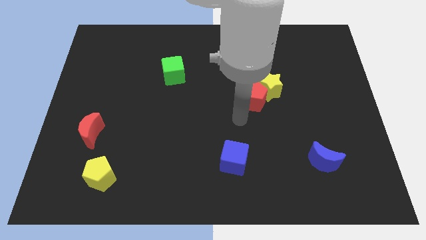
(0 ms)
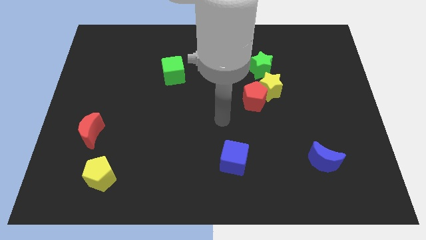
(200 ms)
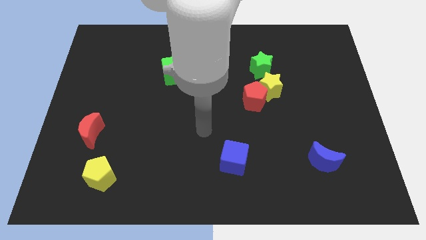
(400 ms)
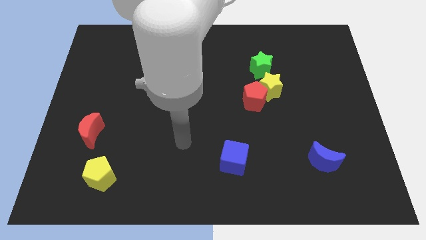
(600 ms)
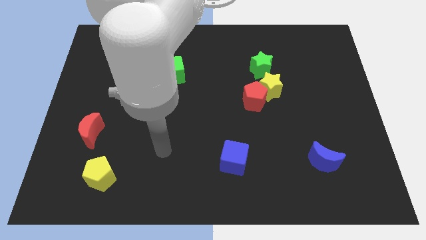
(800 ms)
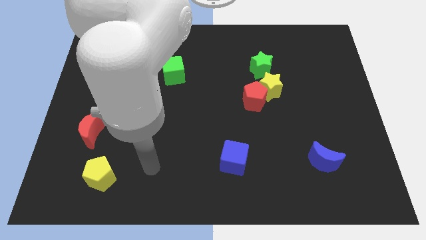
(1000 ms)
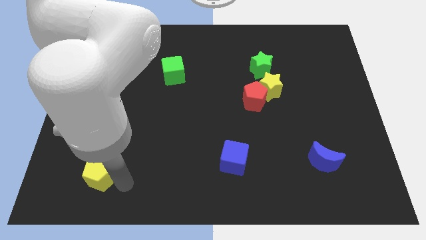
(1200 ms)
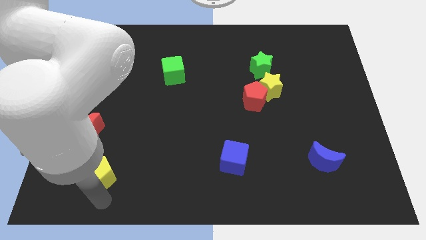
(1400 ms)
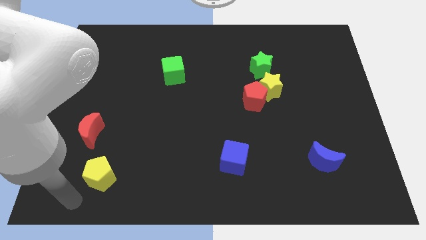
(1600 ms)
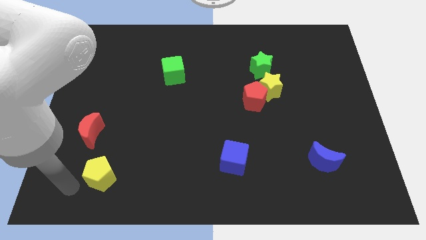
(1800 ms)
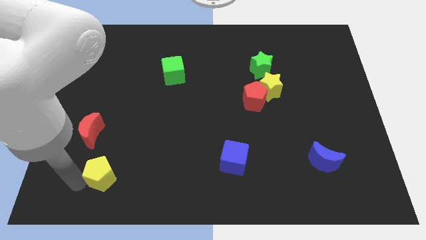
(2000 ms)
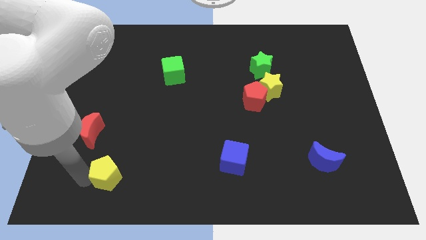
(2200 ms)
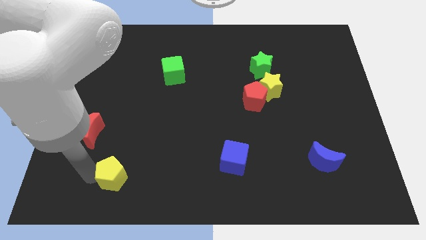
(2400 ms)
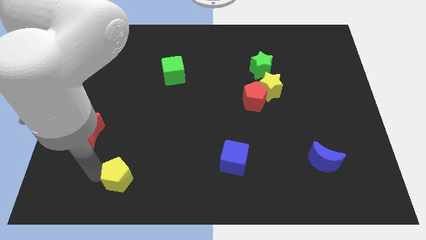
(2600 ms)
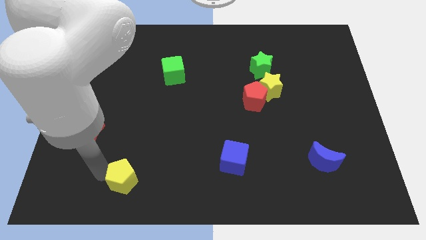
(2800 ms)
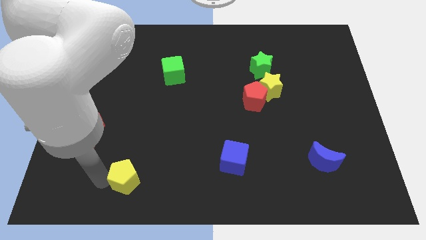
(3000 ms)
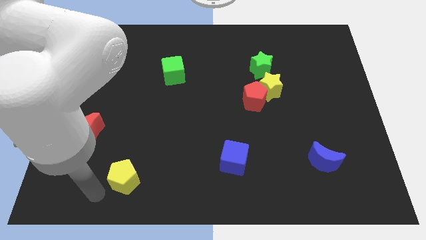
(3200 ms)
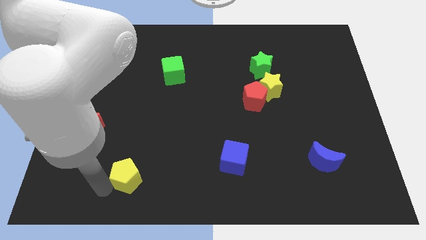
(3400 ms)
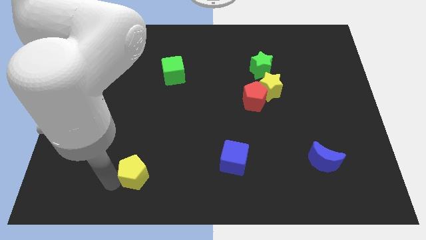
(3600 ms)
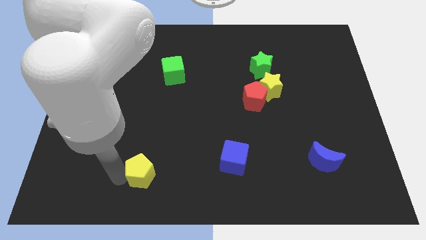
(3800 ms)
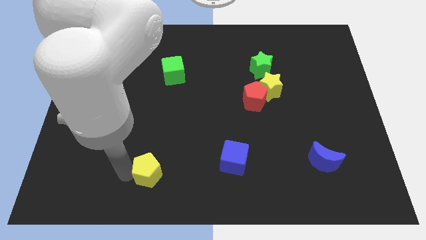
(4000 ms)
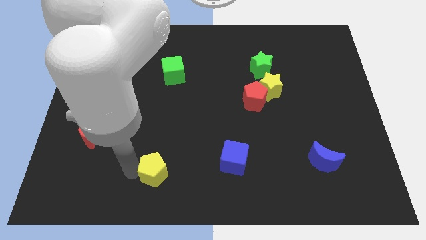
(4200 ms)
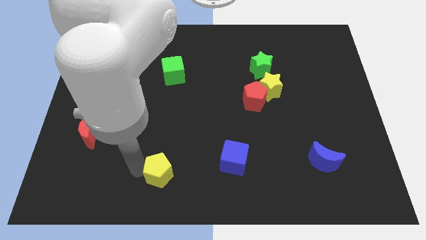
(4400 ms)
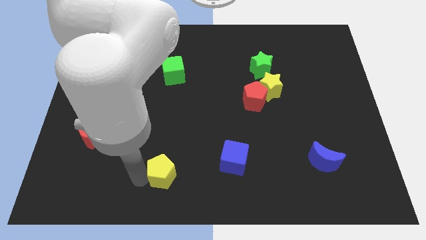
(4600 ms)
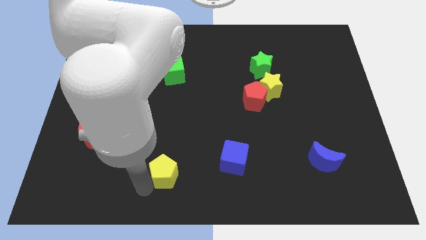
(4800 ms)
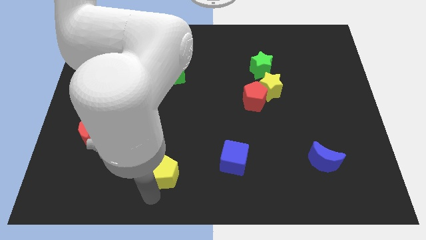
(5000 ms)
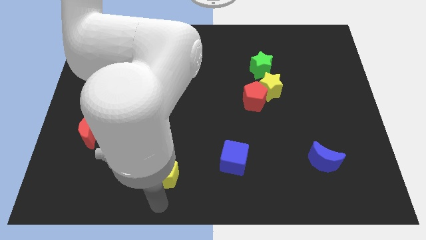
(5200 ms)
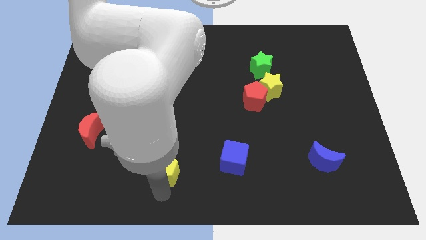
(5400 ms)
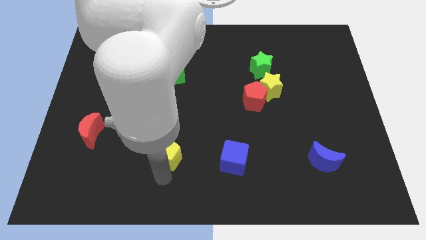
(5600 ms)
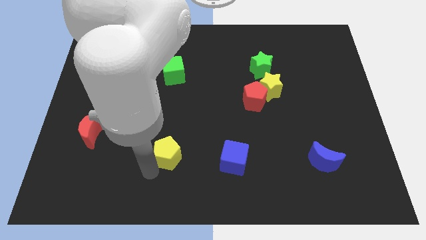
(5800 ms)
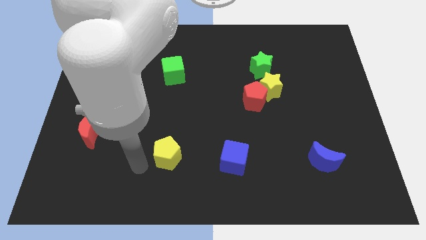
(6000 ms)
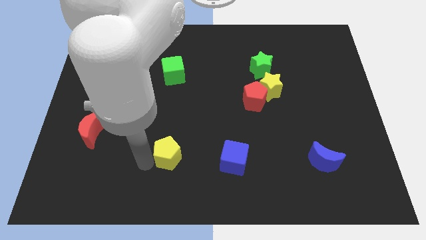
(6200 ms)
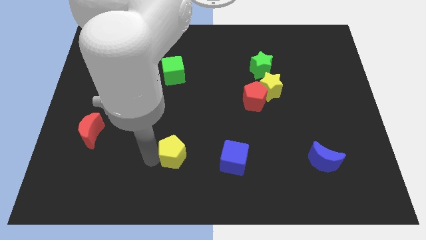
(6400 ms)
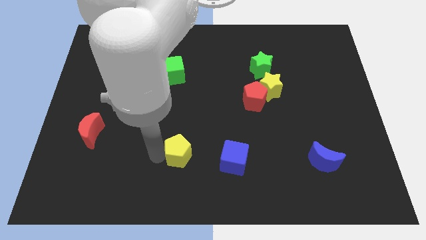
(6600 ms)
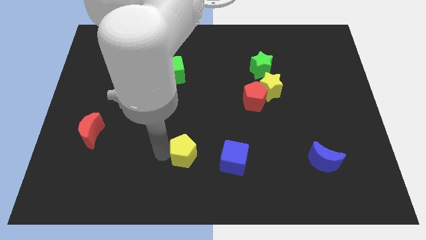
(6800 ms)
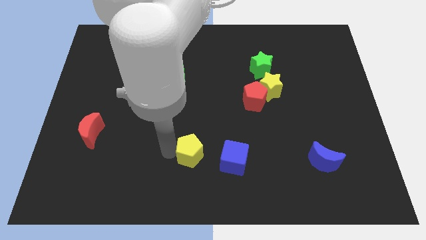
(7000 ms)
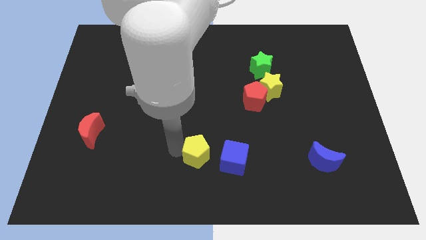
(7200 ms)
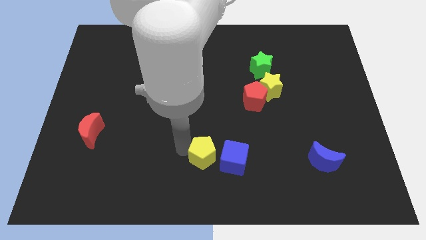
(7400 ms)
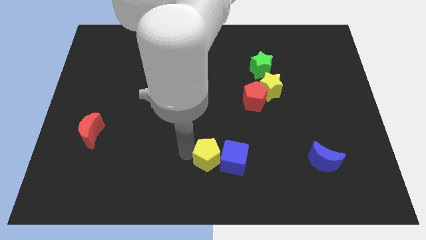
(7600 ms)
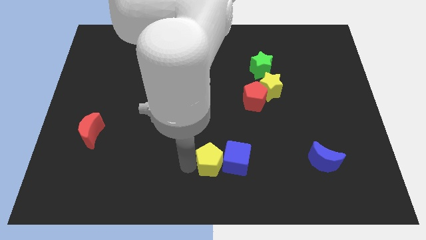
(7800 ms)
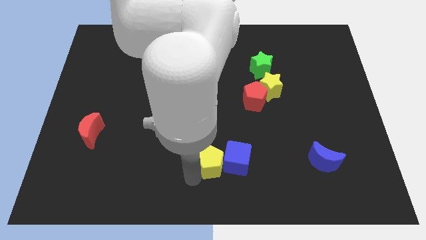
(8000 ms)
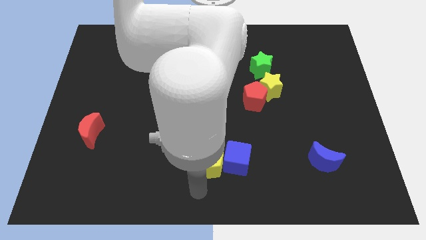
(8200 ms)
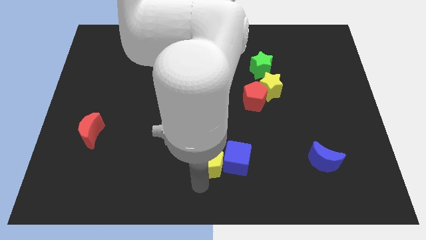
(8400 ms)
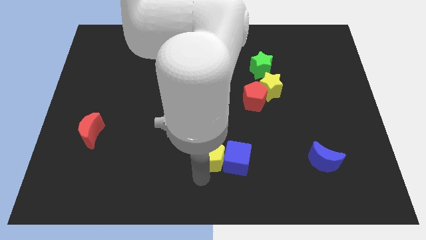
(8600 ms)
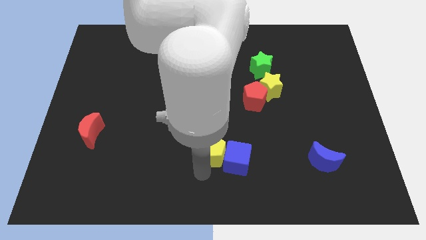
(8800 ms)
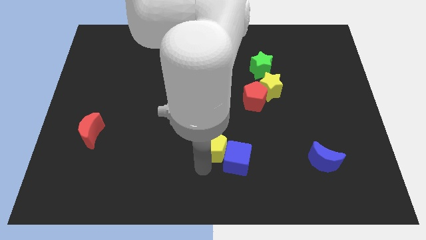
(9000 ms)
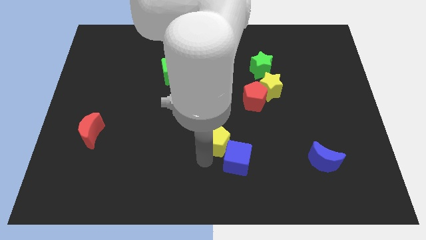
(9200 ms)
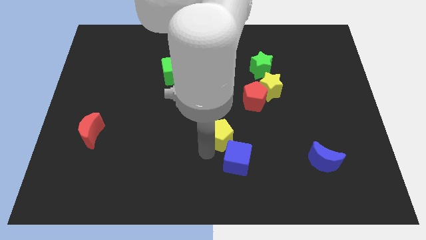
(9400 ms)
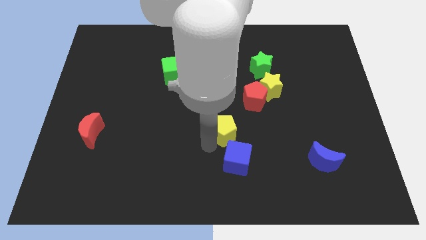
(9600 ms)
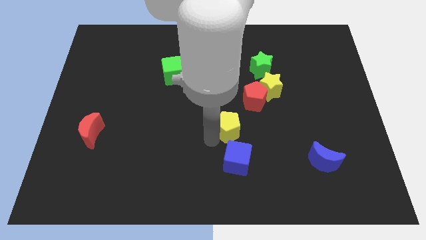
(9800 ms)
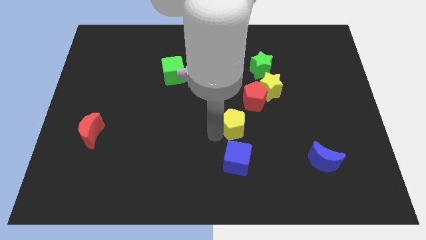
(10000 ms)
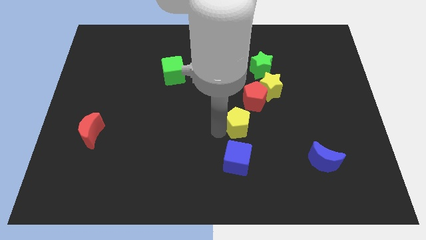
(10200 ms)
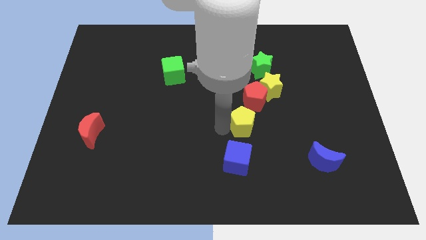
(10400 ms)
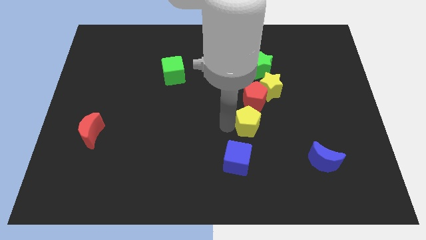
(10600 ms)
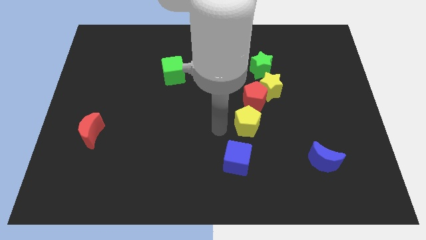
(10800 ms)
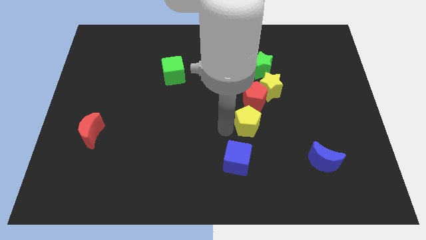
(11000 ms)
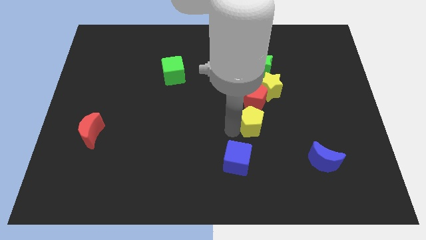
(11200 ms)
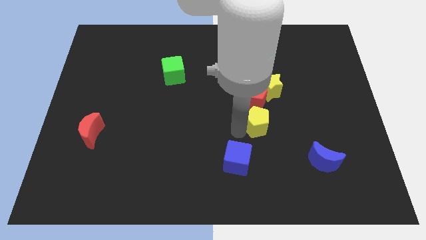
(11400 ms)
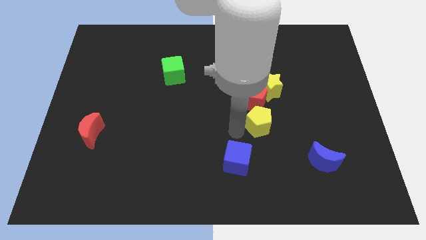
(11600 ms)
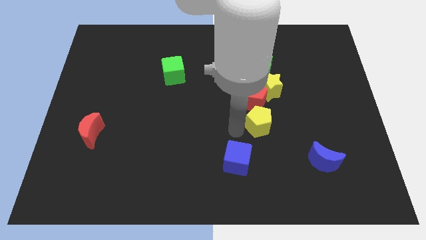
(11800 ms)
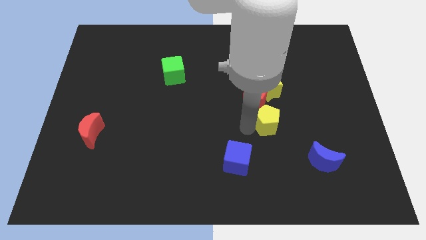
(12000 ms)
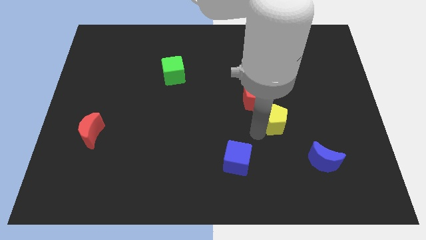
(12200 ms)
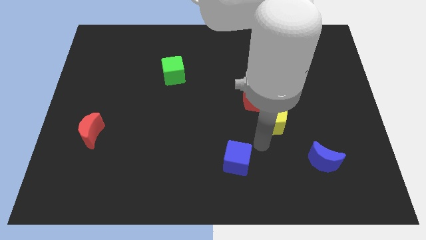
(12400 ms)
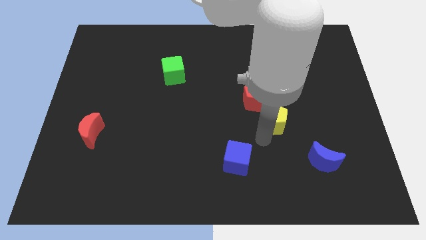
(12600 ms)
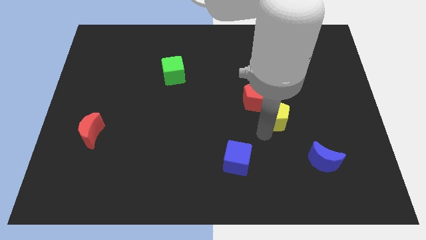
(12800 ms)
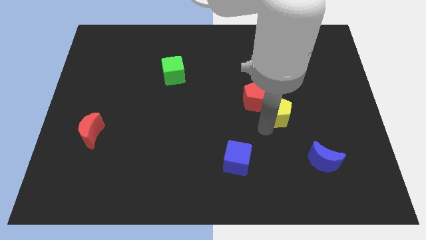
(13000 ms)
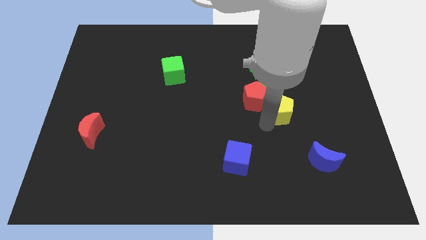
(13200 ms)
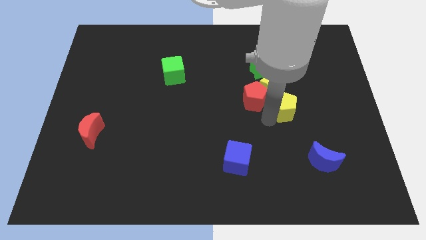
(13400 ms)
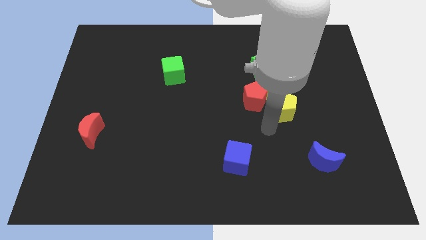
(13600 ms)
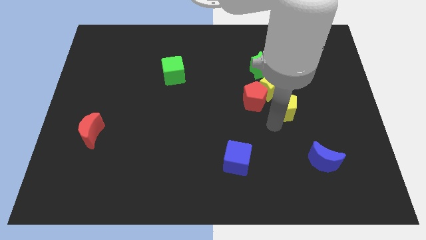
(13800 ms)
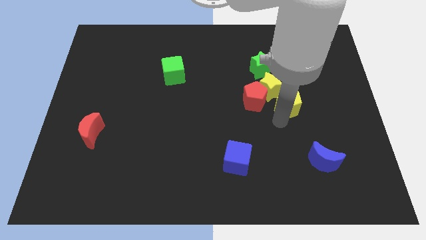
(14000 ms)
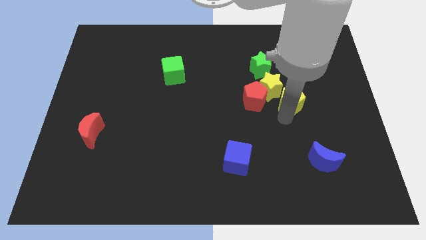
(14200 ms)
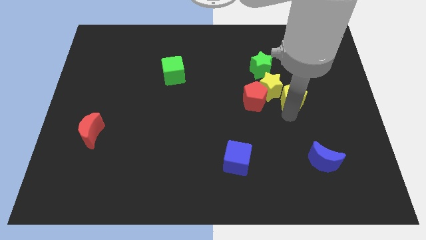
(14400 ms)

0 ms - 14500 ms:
push the yellow pentagon to the bottom right of the green star

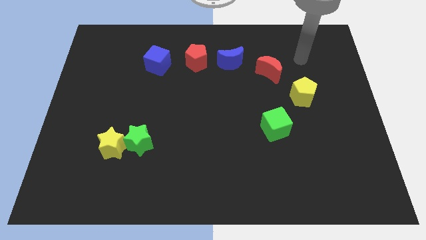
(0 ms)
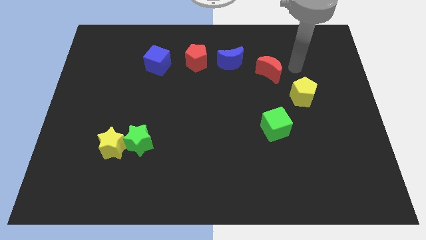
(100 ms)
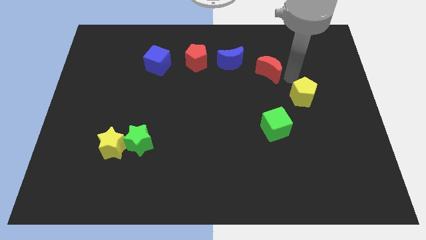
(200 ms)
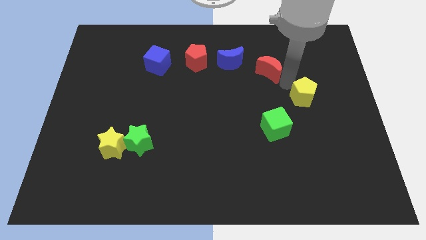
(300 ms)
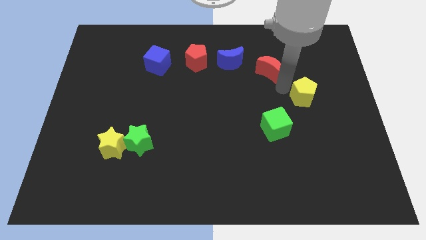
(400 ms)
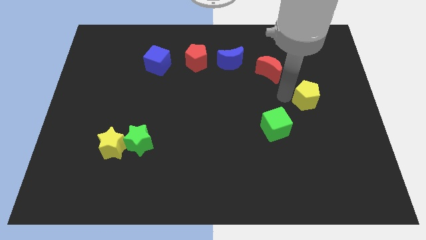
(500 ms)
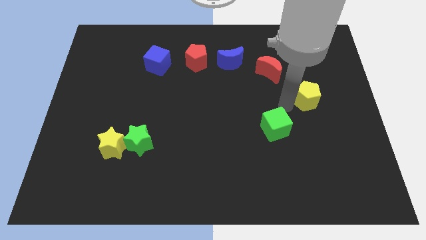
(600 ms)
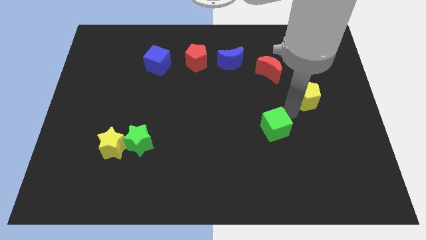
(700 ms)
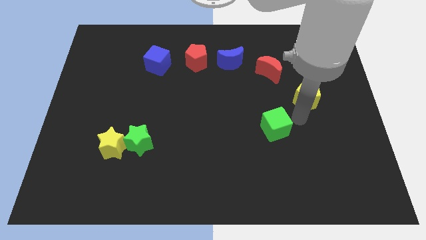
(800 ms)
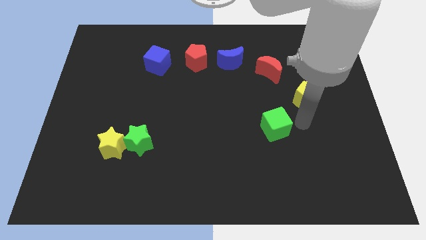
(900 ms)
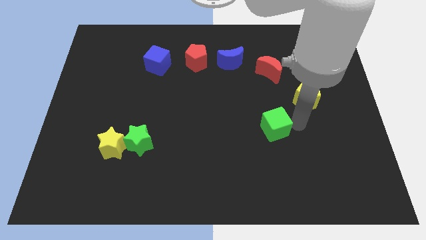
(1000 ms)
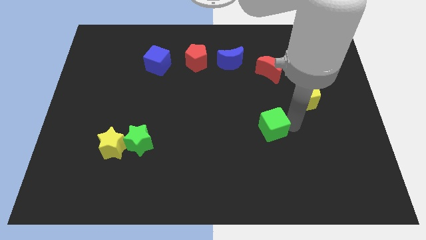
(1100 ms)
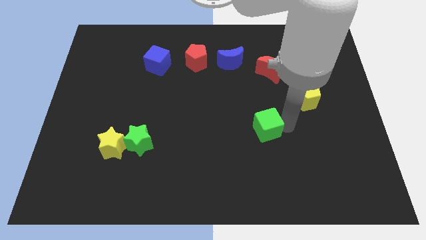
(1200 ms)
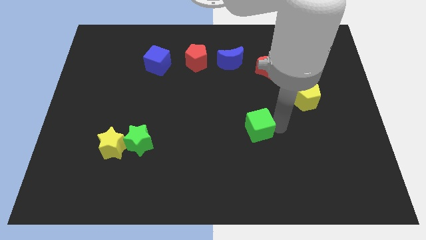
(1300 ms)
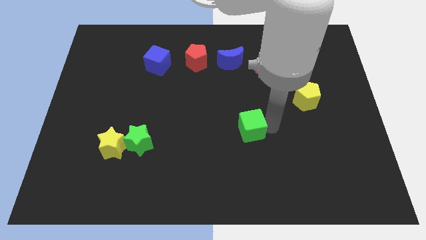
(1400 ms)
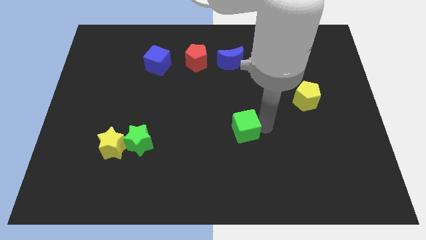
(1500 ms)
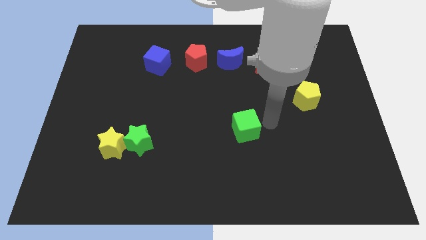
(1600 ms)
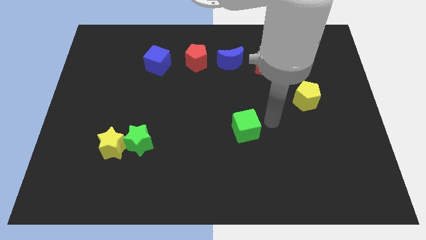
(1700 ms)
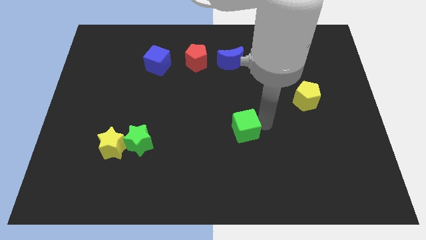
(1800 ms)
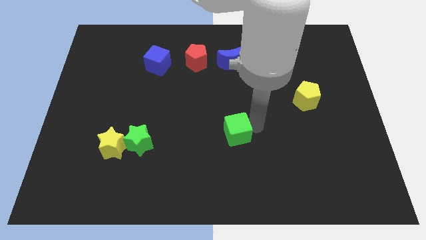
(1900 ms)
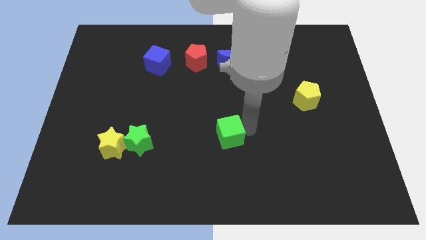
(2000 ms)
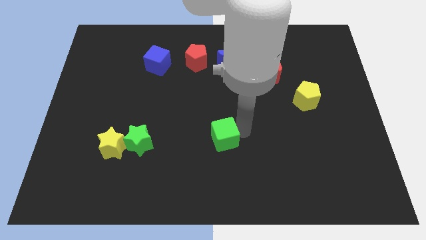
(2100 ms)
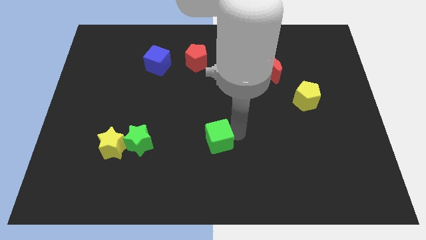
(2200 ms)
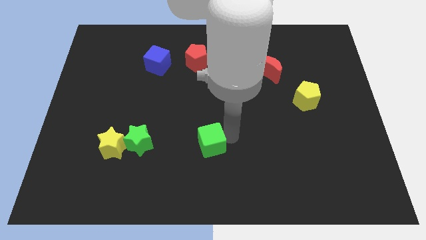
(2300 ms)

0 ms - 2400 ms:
move the green cube to the right side of the green star
